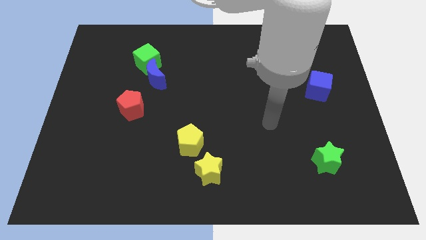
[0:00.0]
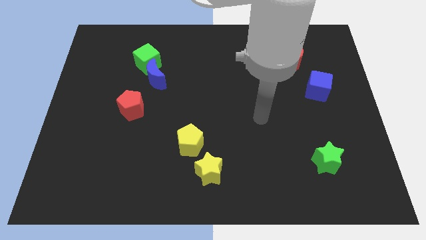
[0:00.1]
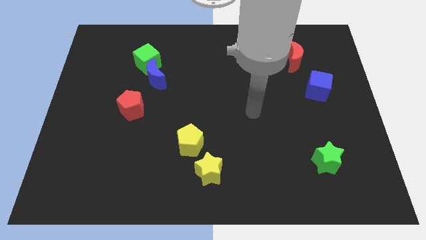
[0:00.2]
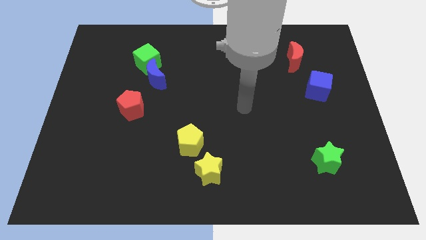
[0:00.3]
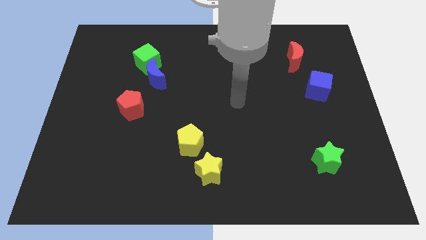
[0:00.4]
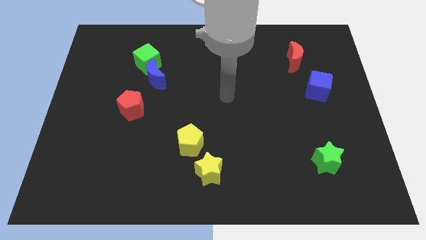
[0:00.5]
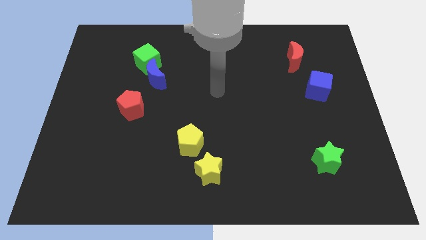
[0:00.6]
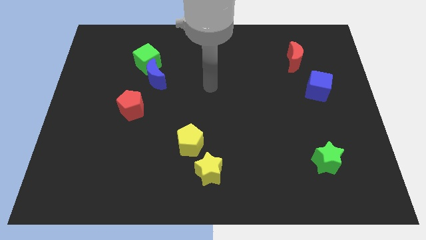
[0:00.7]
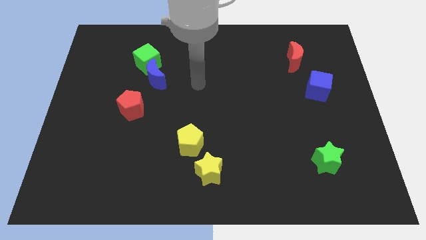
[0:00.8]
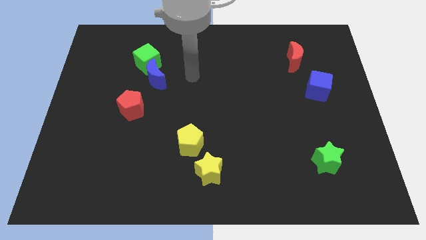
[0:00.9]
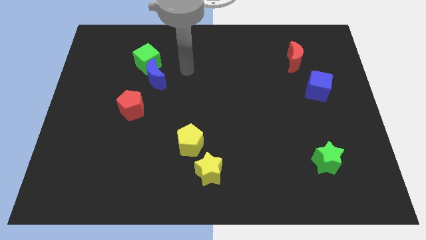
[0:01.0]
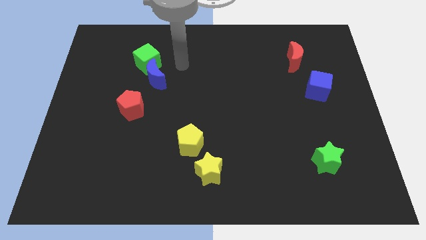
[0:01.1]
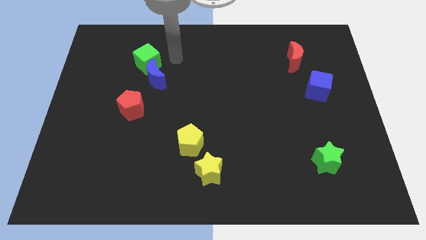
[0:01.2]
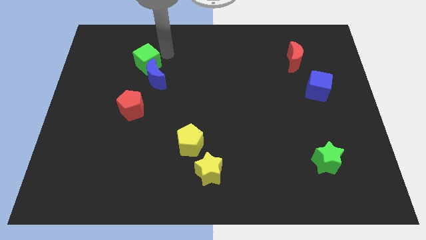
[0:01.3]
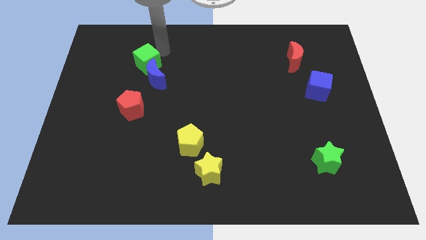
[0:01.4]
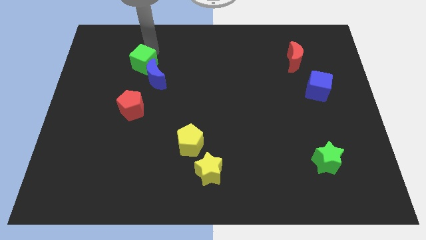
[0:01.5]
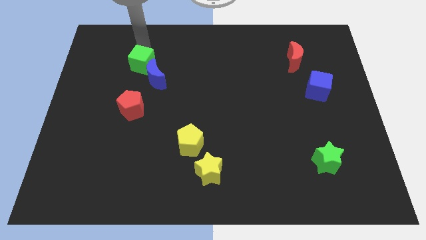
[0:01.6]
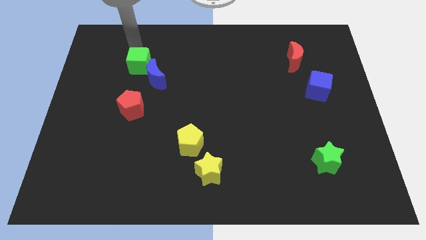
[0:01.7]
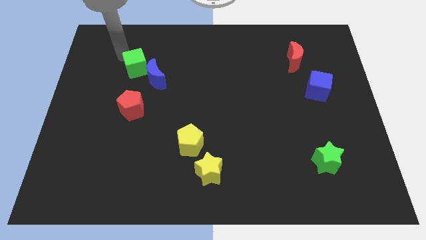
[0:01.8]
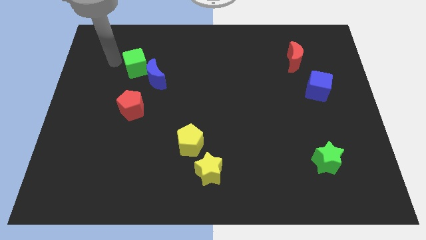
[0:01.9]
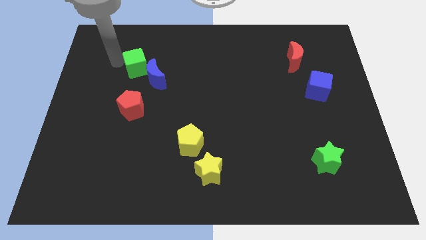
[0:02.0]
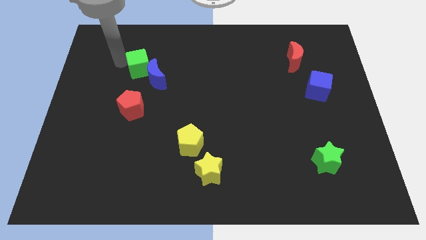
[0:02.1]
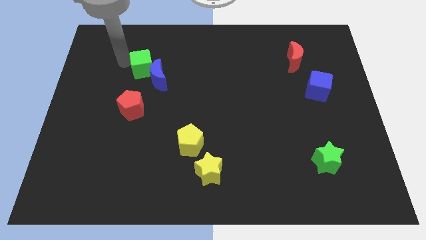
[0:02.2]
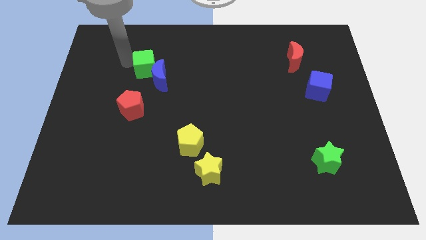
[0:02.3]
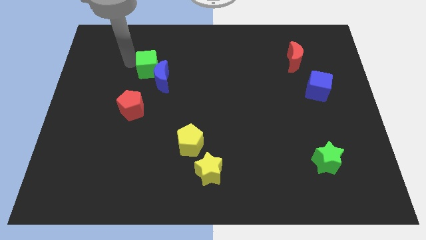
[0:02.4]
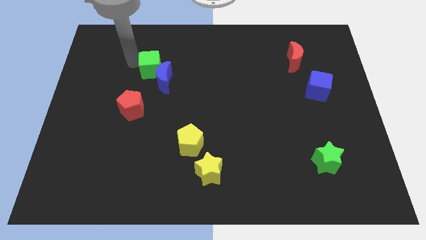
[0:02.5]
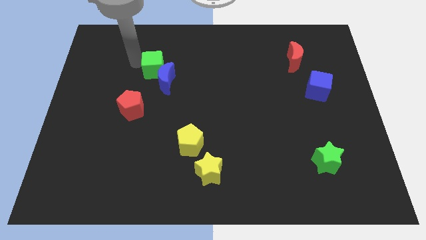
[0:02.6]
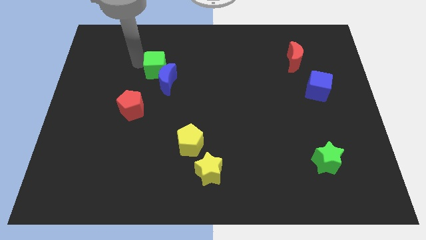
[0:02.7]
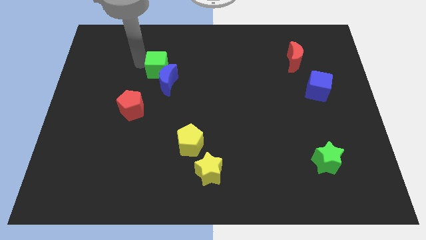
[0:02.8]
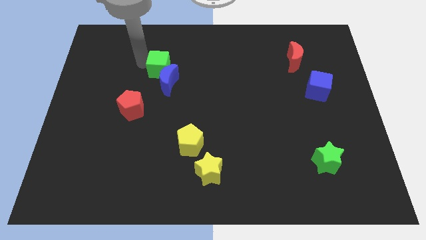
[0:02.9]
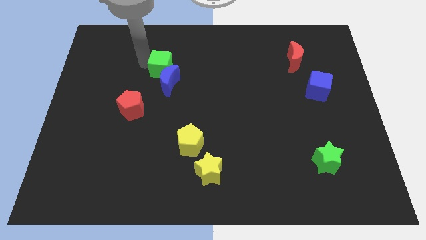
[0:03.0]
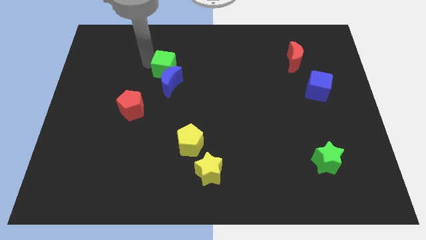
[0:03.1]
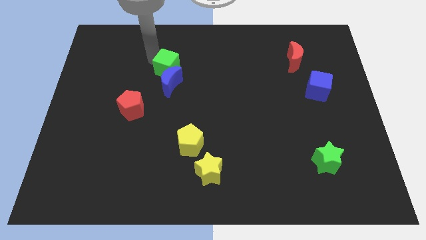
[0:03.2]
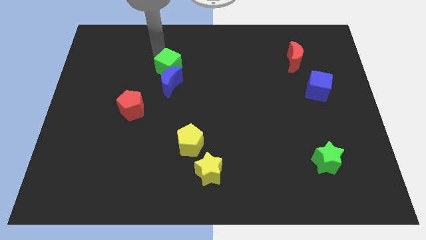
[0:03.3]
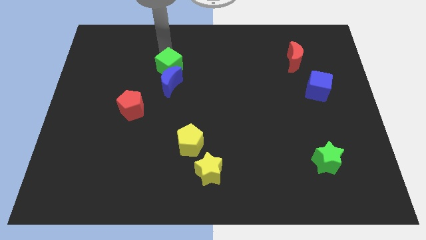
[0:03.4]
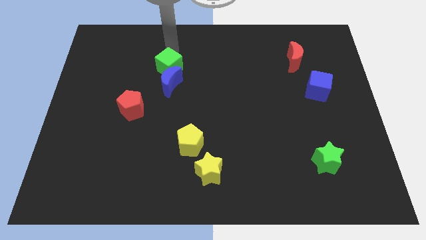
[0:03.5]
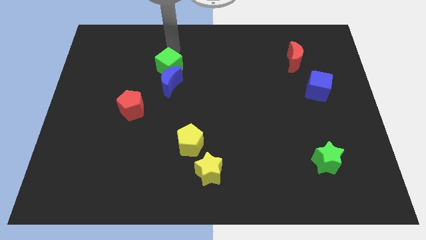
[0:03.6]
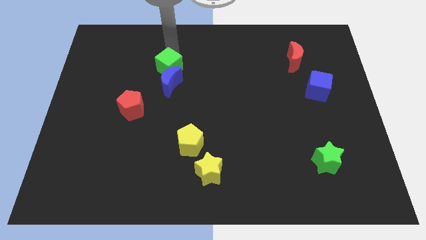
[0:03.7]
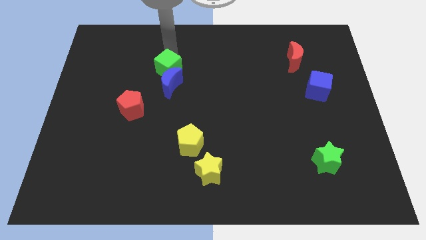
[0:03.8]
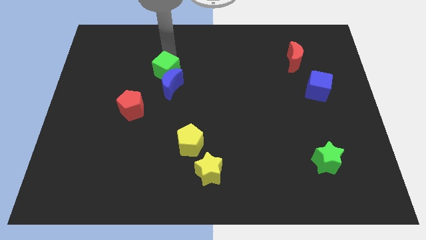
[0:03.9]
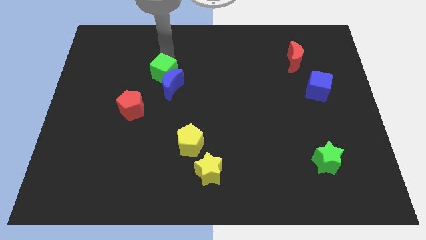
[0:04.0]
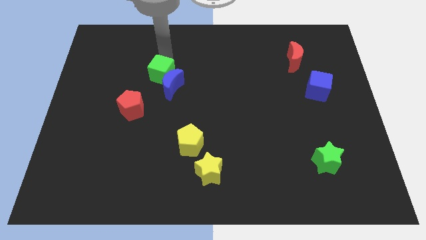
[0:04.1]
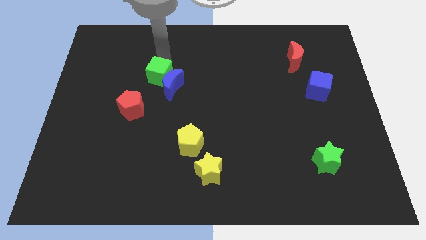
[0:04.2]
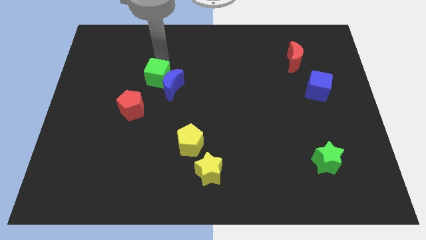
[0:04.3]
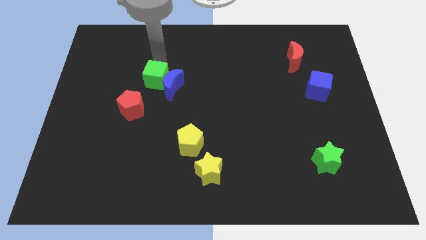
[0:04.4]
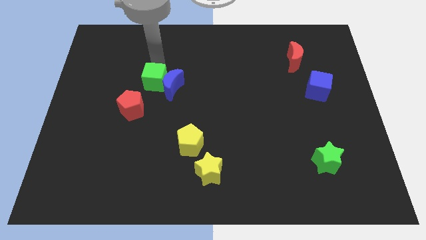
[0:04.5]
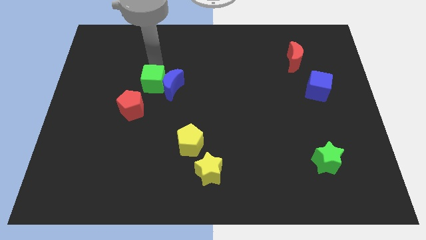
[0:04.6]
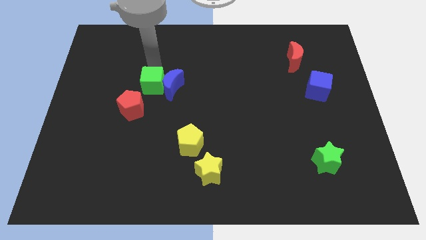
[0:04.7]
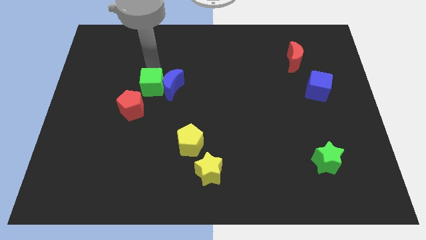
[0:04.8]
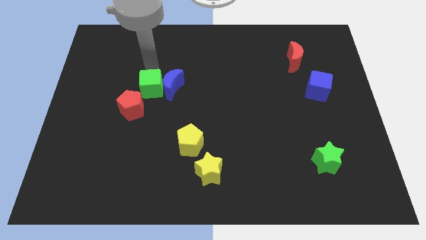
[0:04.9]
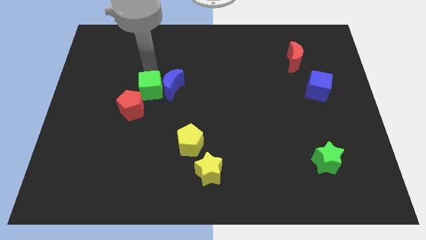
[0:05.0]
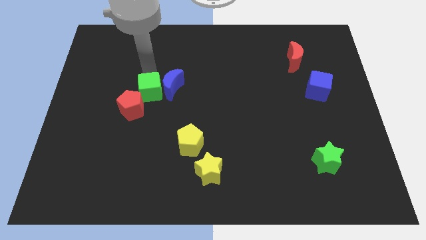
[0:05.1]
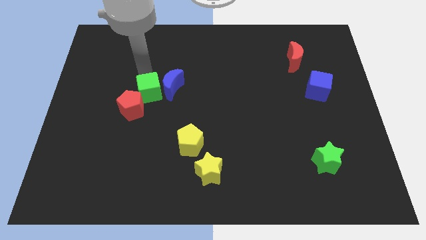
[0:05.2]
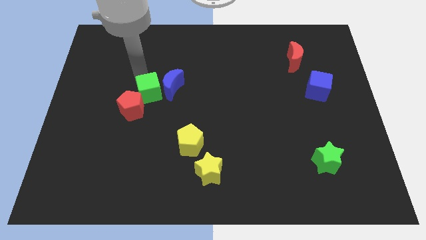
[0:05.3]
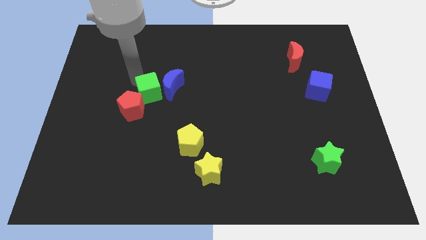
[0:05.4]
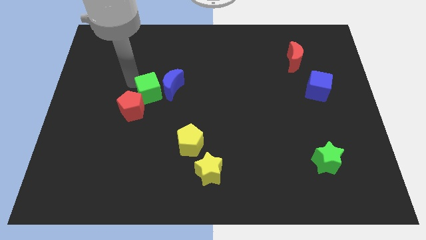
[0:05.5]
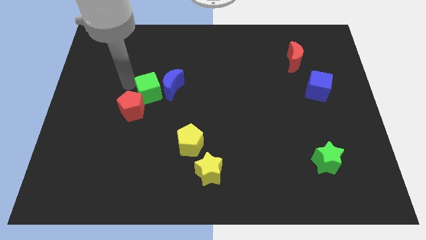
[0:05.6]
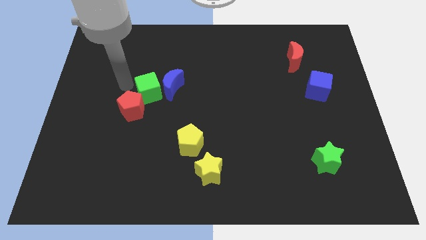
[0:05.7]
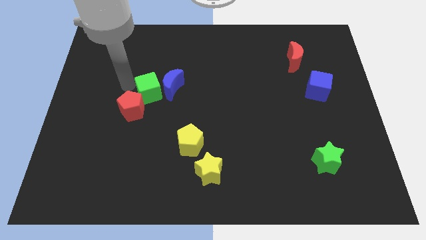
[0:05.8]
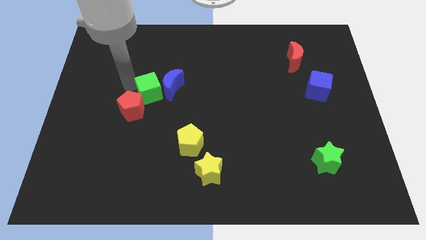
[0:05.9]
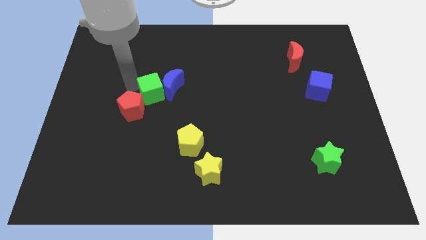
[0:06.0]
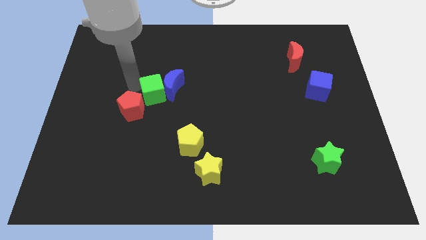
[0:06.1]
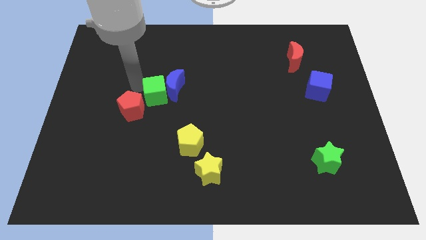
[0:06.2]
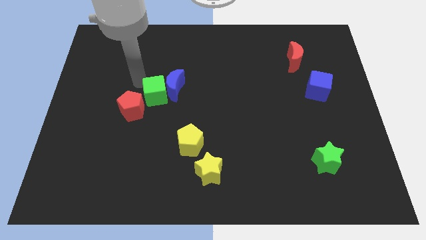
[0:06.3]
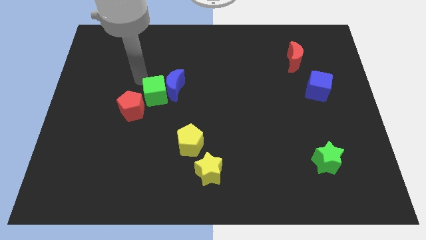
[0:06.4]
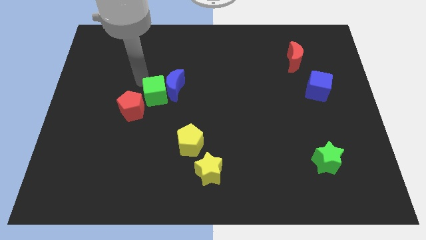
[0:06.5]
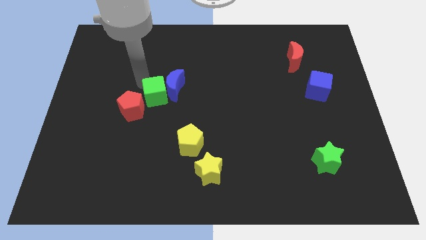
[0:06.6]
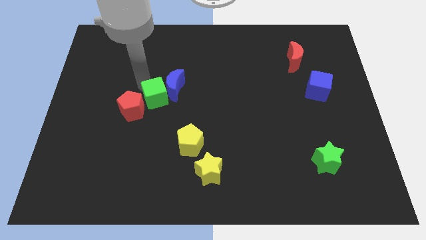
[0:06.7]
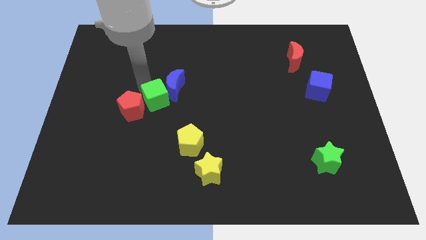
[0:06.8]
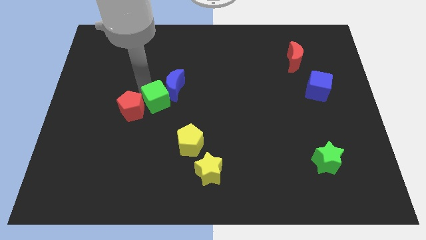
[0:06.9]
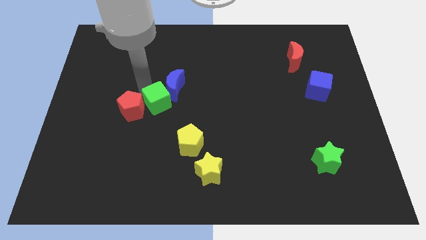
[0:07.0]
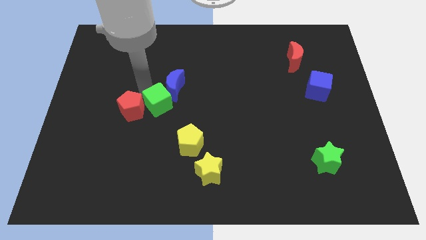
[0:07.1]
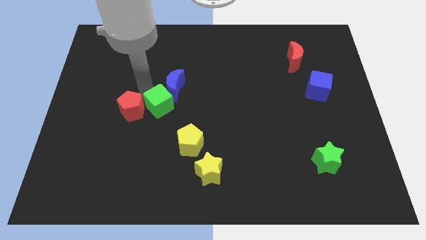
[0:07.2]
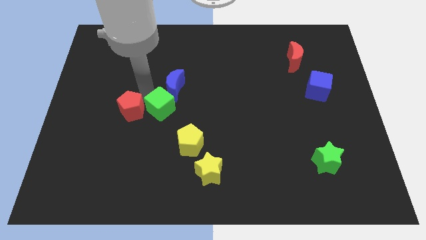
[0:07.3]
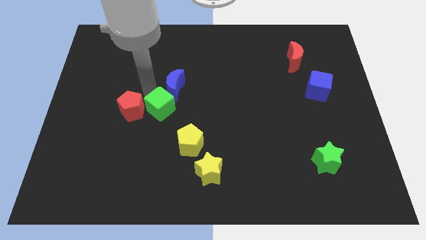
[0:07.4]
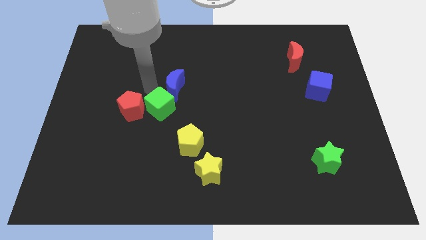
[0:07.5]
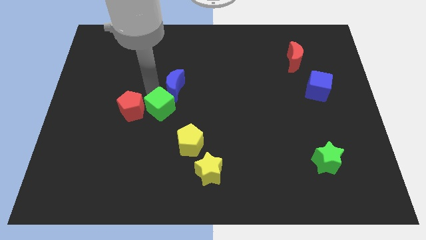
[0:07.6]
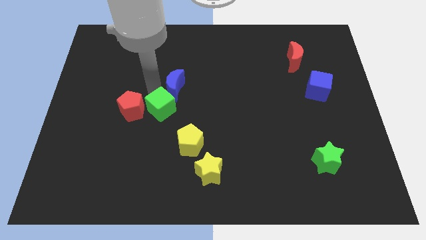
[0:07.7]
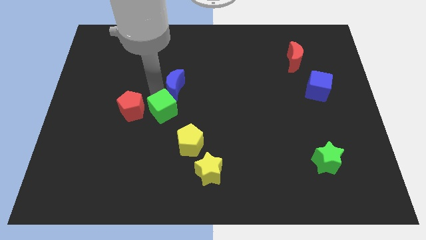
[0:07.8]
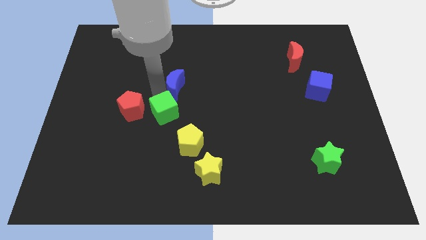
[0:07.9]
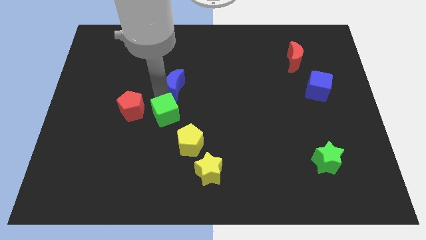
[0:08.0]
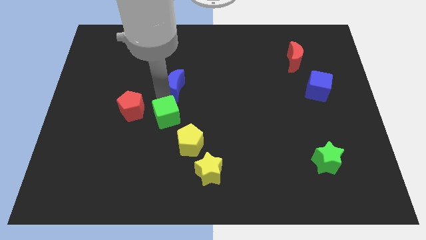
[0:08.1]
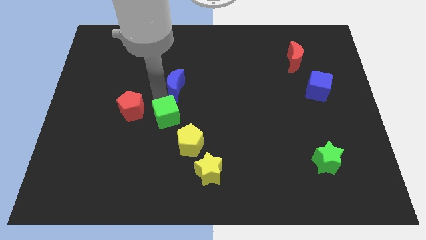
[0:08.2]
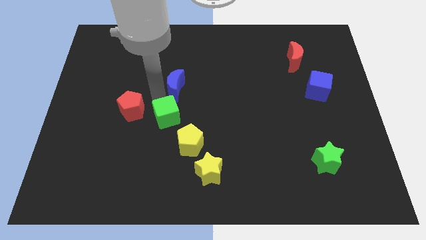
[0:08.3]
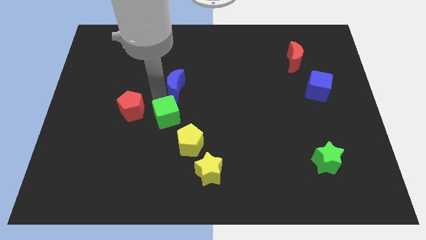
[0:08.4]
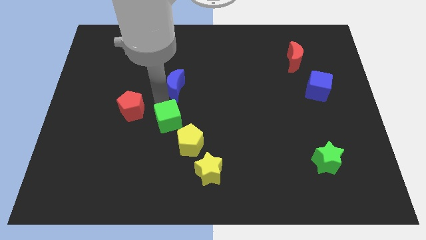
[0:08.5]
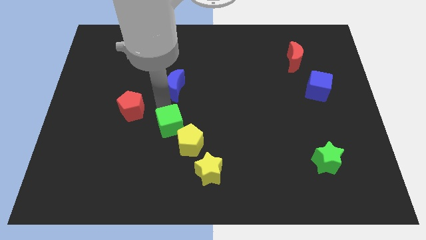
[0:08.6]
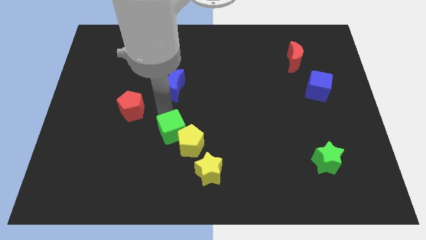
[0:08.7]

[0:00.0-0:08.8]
push the green cube towards the yellow pentagon
